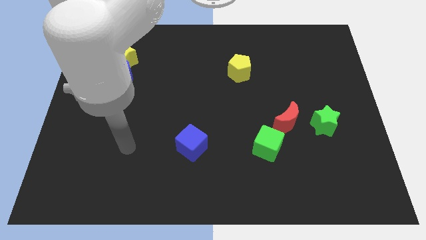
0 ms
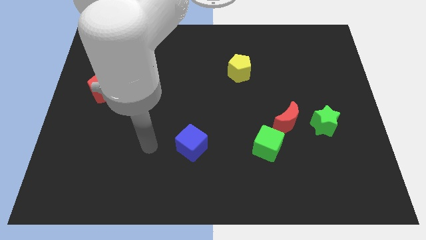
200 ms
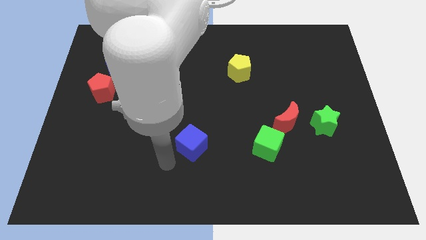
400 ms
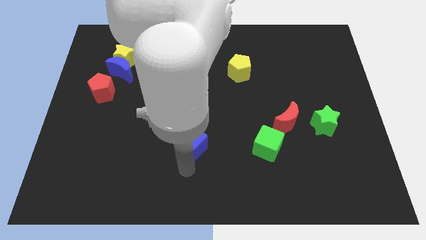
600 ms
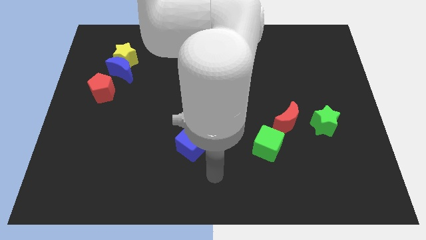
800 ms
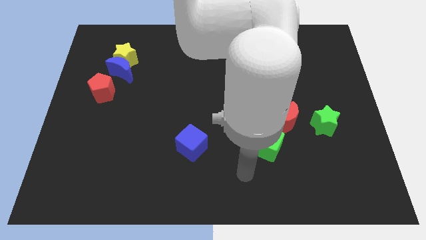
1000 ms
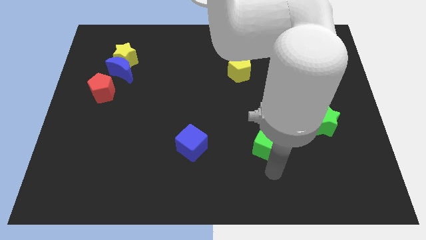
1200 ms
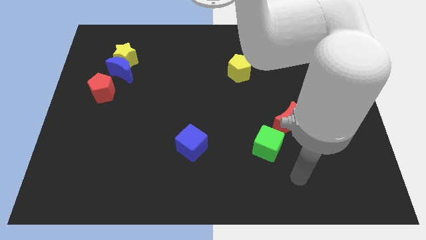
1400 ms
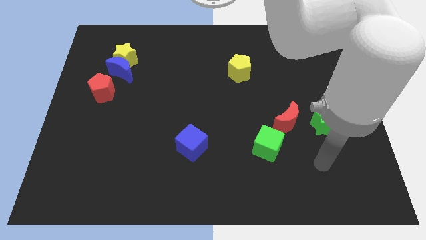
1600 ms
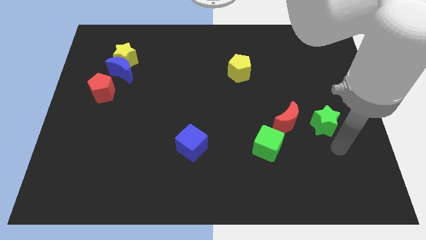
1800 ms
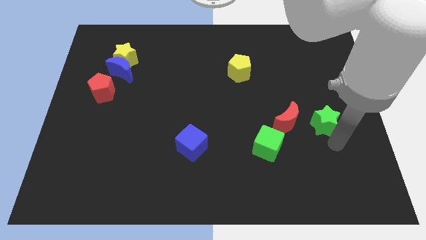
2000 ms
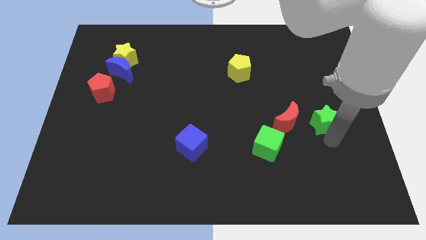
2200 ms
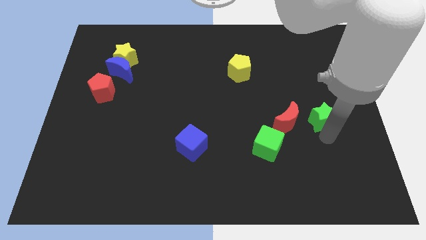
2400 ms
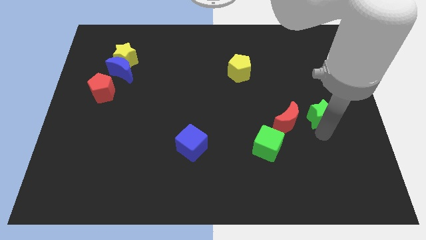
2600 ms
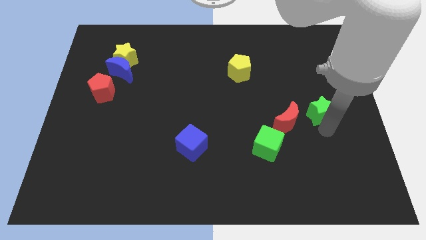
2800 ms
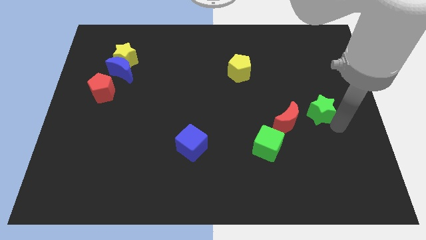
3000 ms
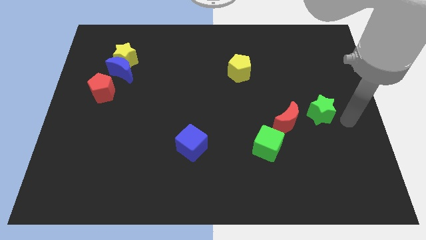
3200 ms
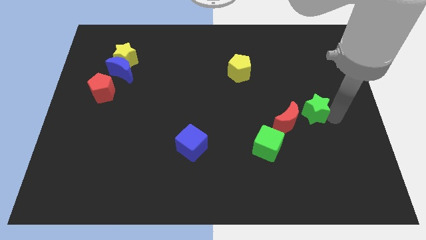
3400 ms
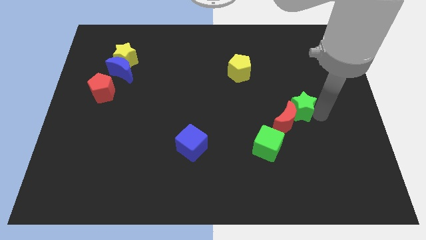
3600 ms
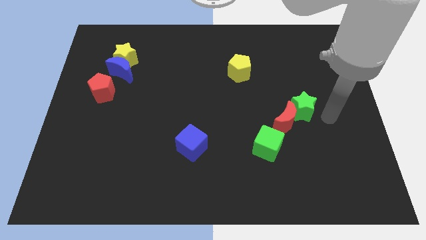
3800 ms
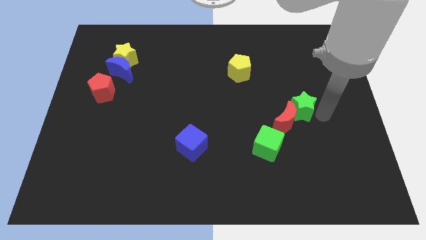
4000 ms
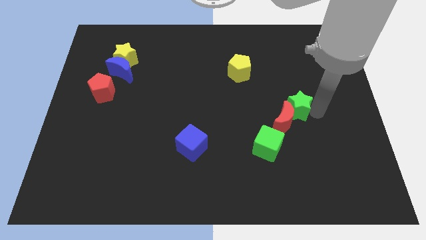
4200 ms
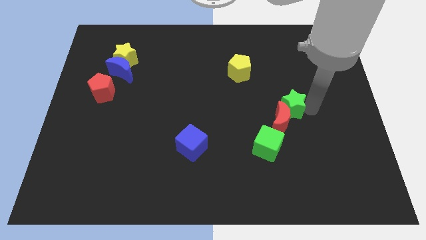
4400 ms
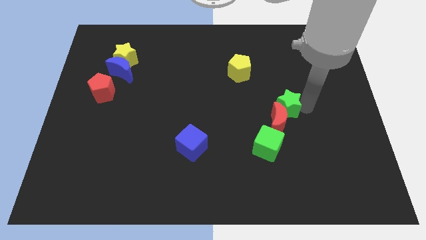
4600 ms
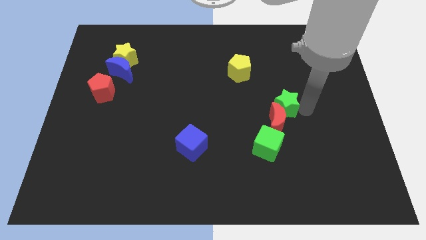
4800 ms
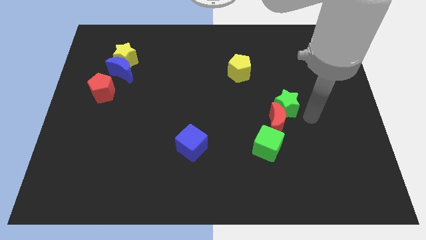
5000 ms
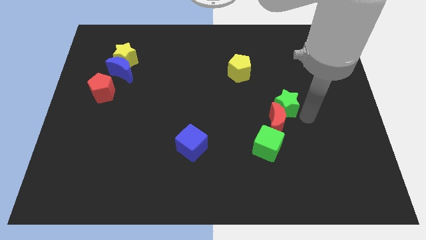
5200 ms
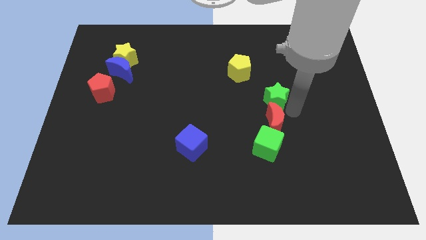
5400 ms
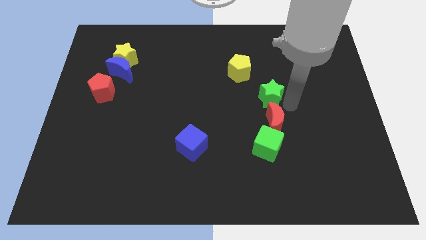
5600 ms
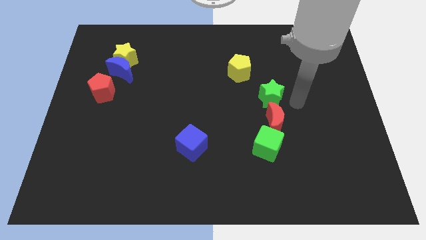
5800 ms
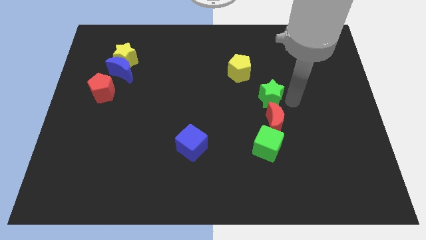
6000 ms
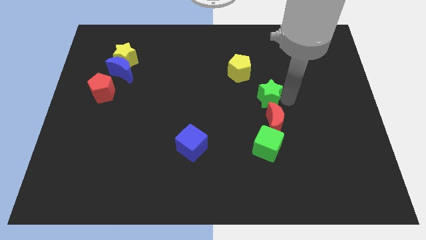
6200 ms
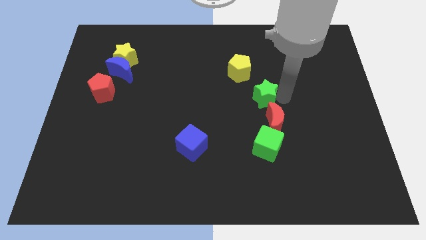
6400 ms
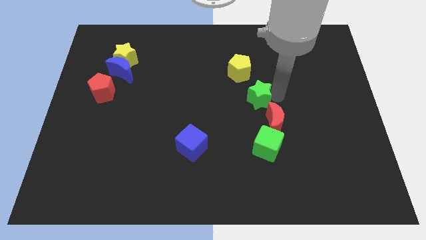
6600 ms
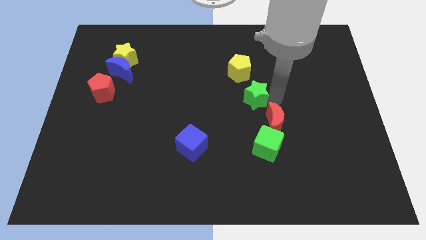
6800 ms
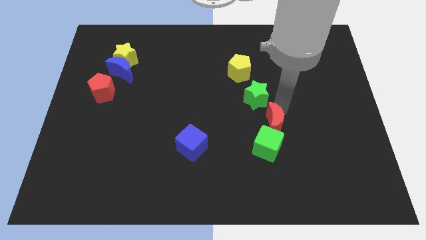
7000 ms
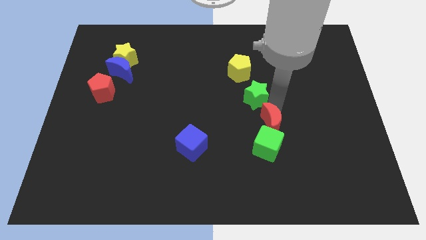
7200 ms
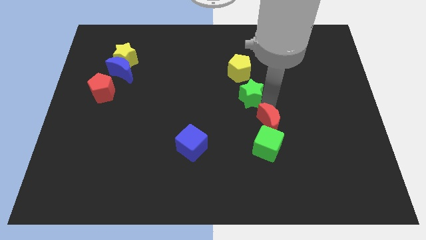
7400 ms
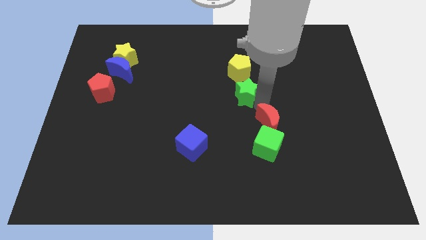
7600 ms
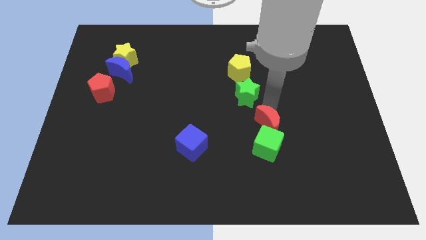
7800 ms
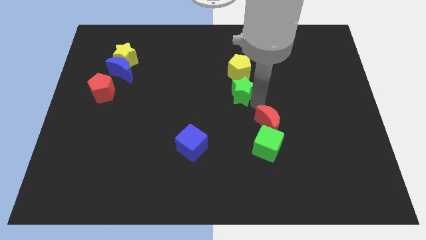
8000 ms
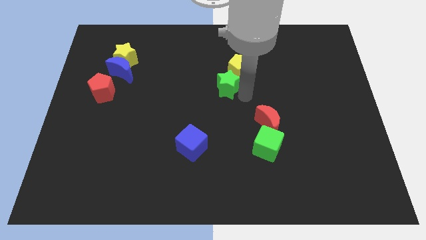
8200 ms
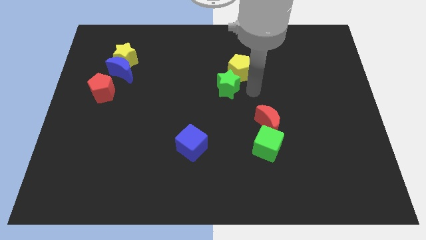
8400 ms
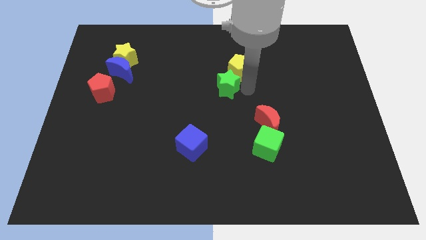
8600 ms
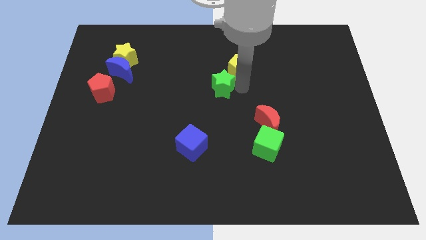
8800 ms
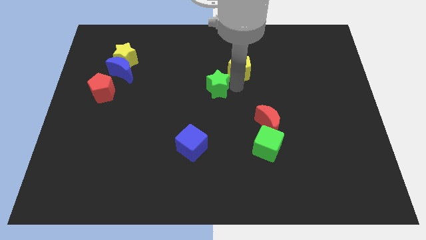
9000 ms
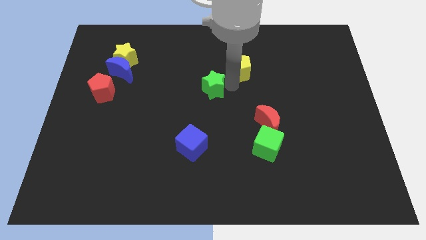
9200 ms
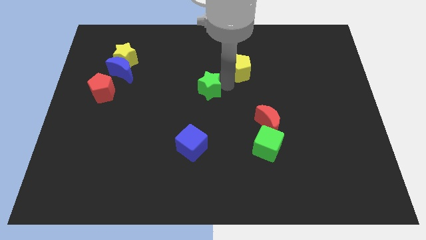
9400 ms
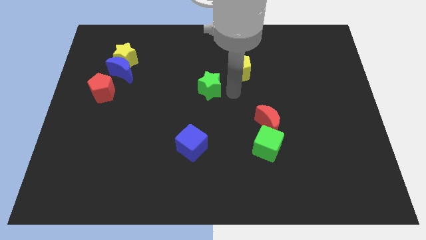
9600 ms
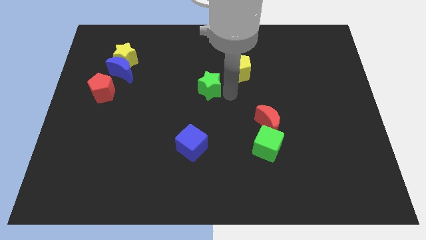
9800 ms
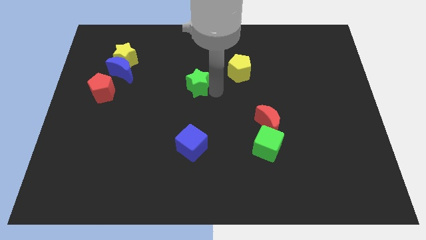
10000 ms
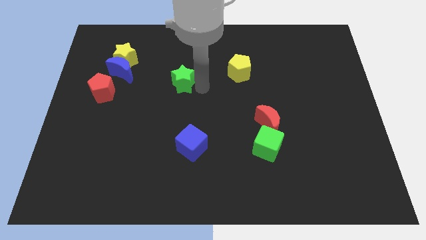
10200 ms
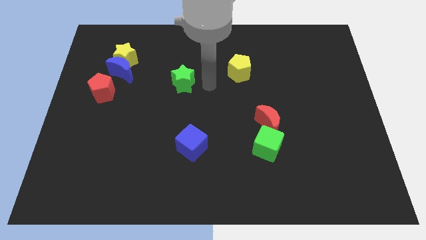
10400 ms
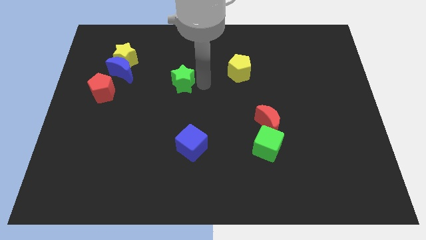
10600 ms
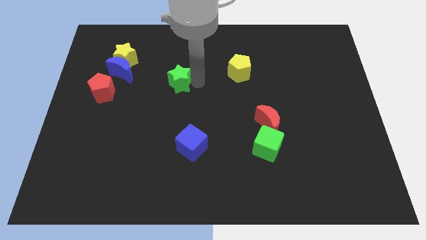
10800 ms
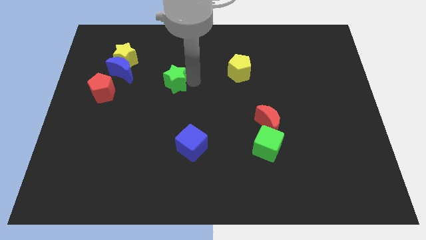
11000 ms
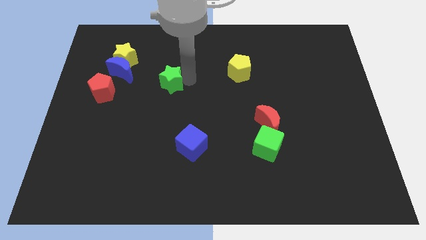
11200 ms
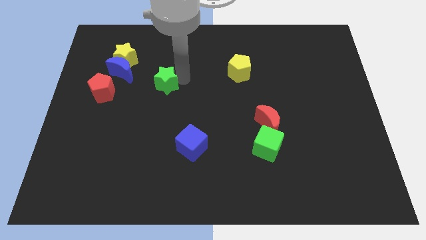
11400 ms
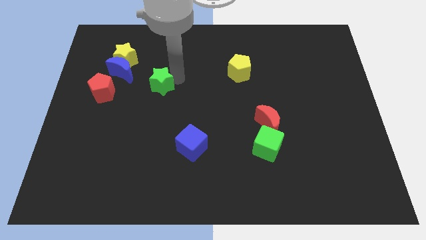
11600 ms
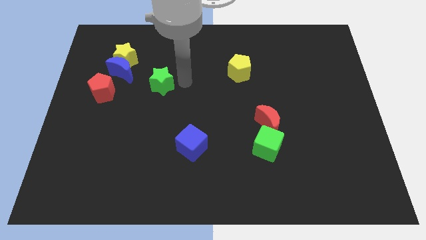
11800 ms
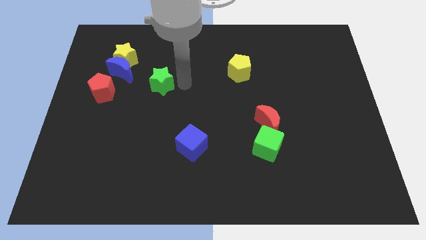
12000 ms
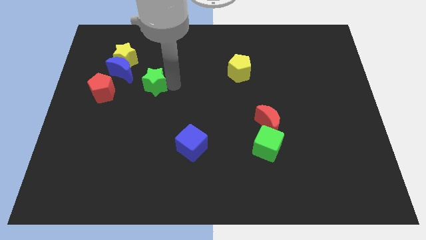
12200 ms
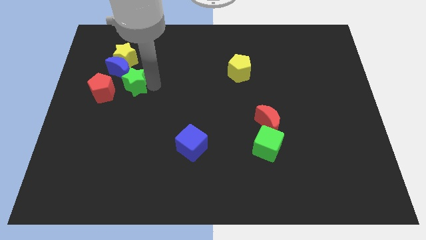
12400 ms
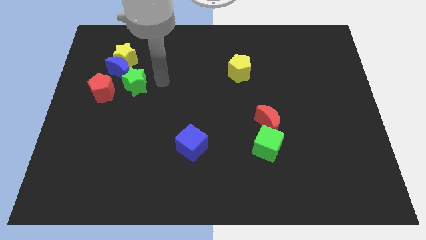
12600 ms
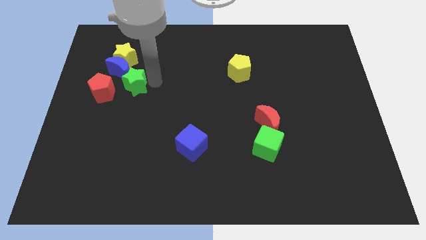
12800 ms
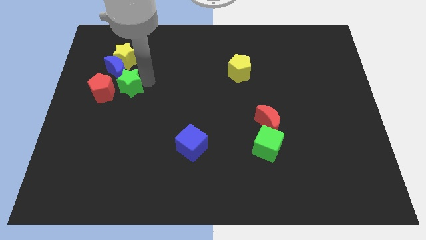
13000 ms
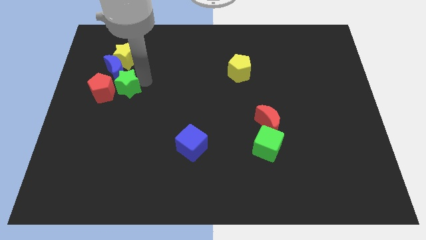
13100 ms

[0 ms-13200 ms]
move the green star next to the red pentagon
